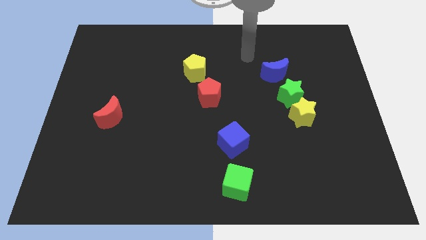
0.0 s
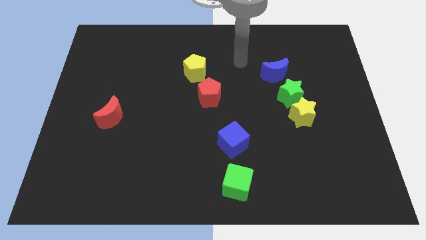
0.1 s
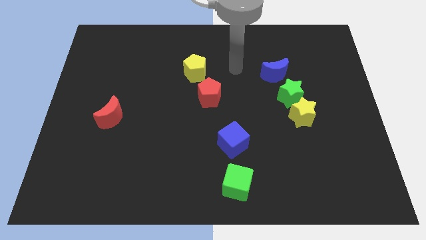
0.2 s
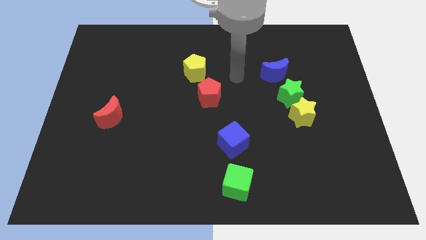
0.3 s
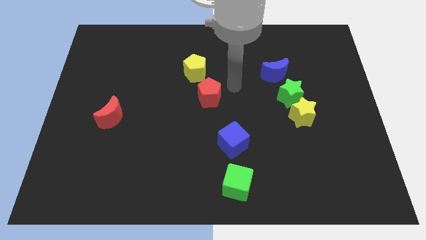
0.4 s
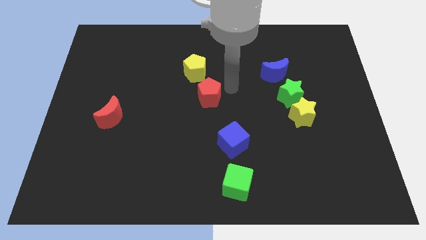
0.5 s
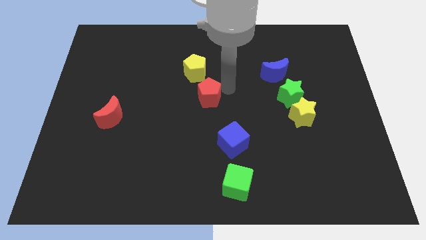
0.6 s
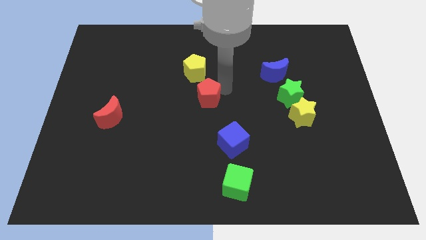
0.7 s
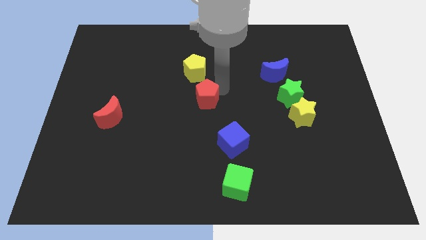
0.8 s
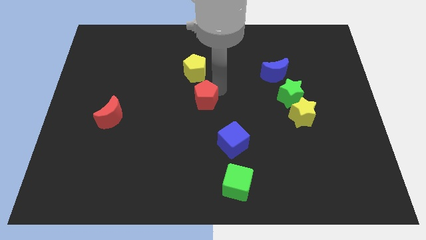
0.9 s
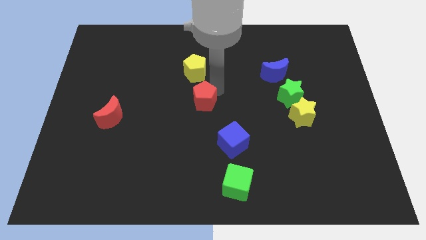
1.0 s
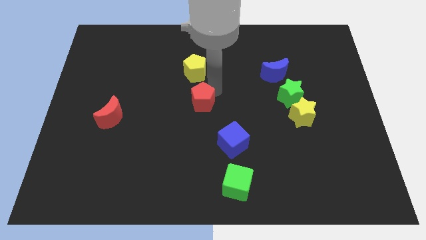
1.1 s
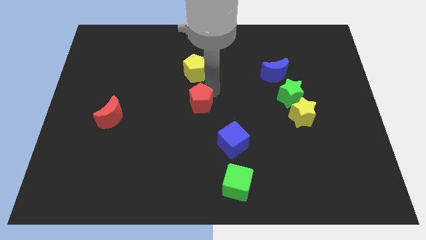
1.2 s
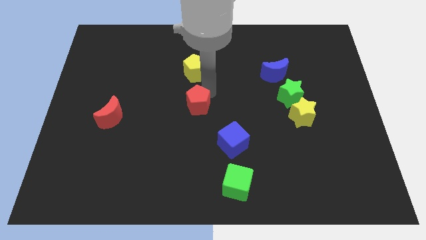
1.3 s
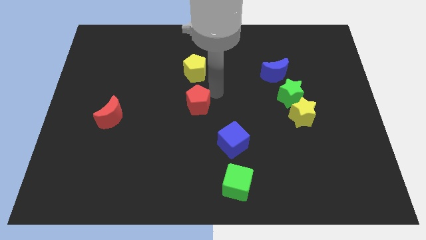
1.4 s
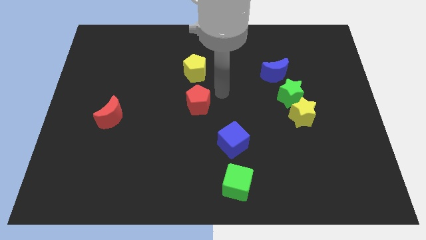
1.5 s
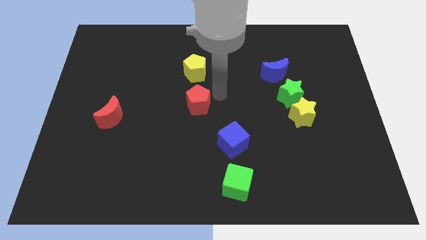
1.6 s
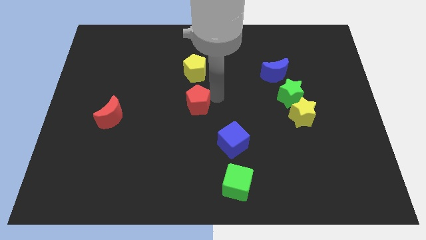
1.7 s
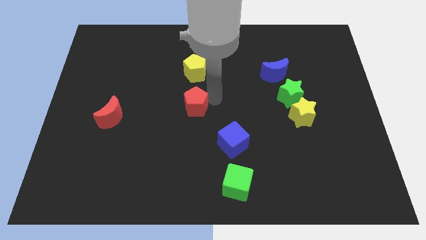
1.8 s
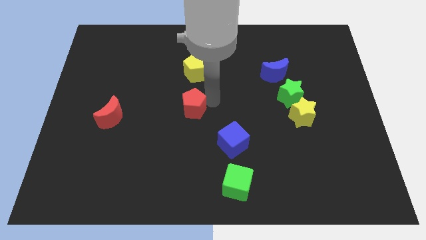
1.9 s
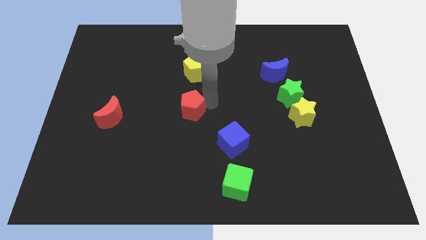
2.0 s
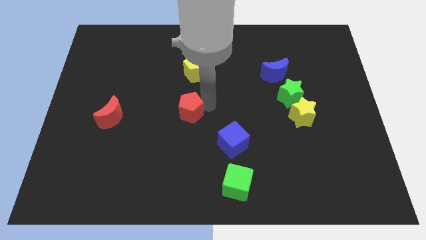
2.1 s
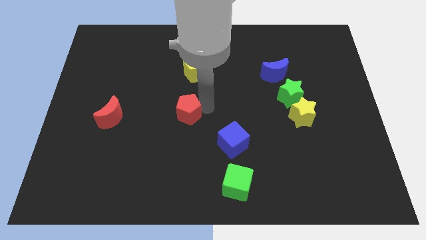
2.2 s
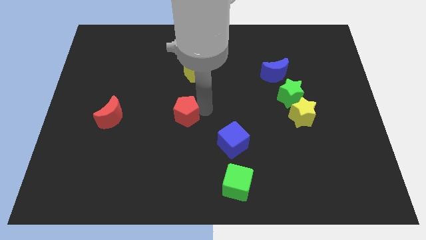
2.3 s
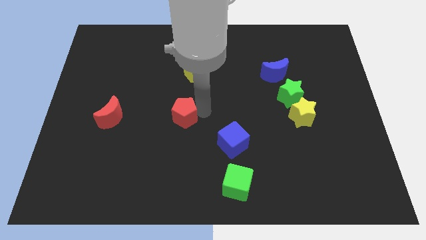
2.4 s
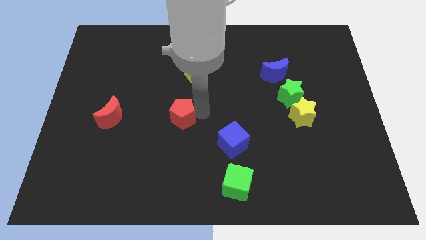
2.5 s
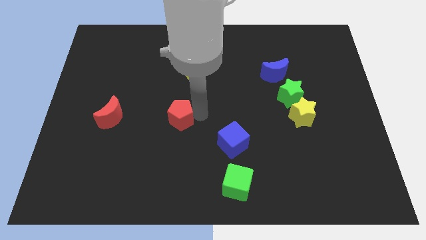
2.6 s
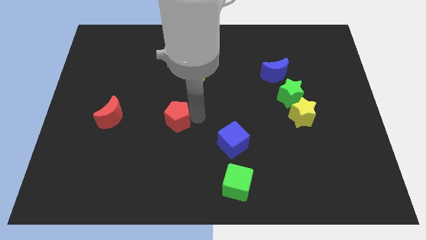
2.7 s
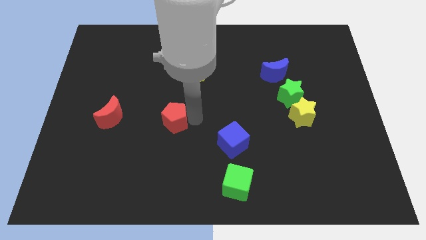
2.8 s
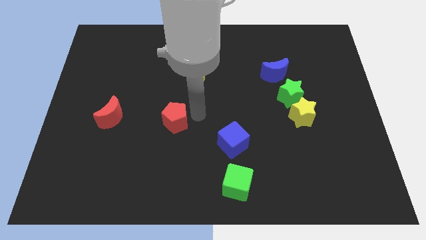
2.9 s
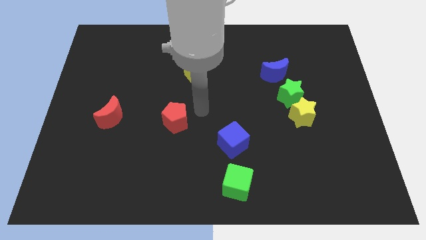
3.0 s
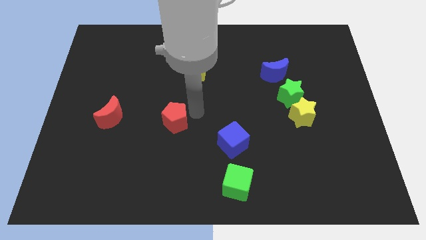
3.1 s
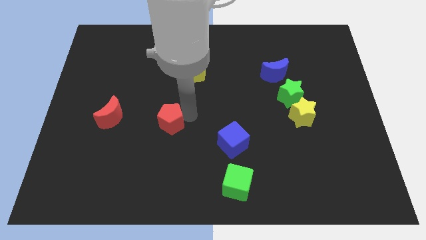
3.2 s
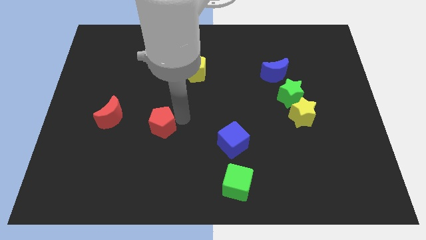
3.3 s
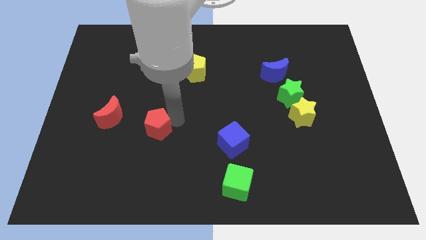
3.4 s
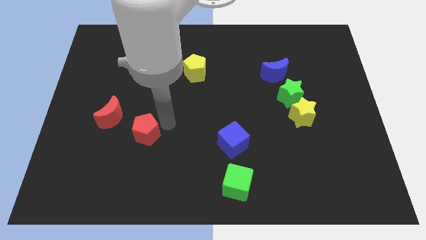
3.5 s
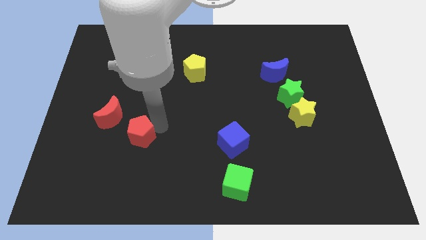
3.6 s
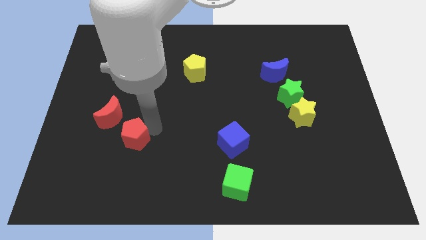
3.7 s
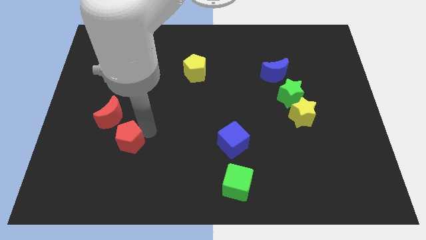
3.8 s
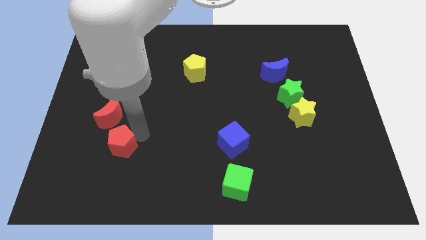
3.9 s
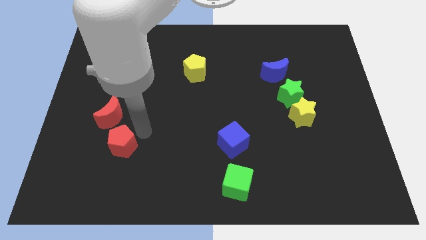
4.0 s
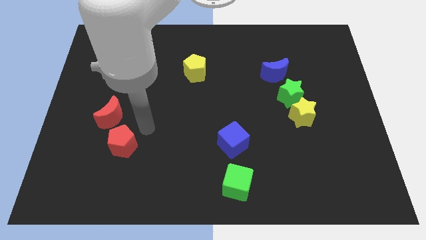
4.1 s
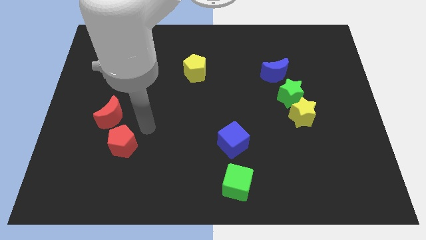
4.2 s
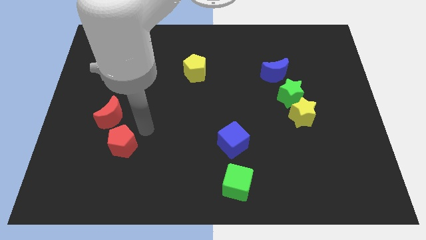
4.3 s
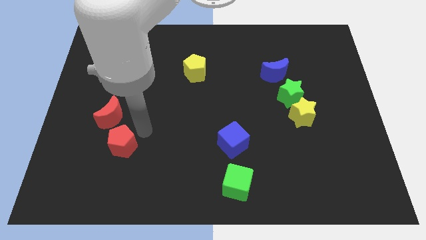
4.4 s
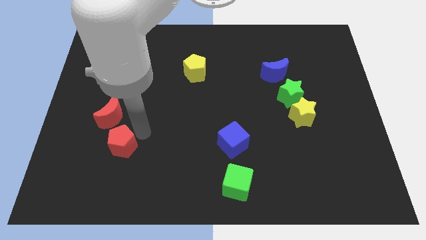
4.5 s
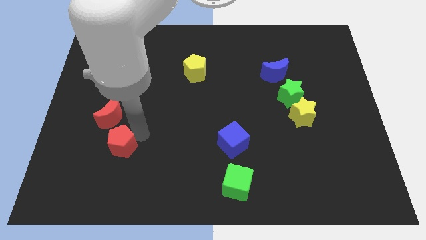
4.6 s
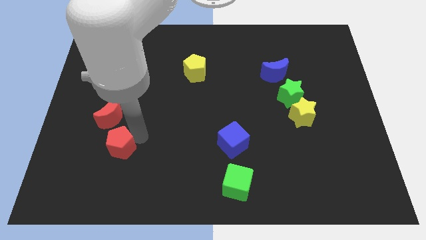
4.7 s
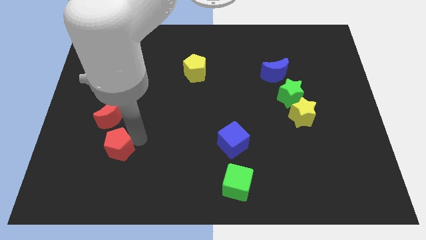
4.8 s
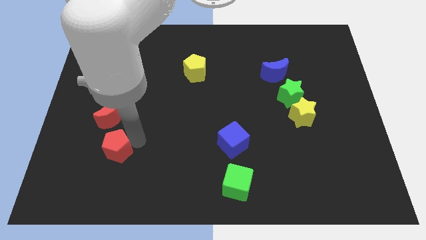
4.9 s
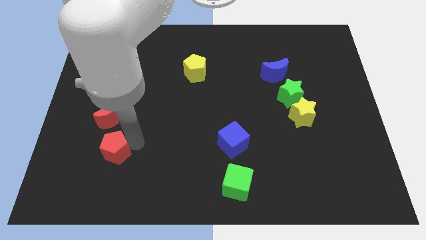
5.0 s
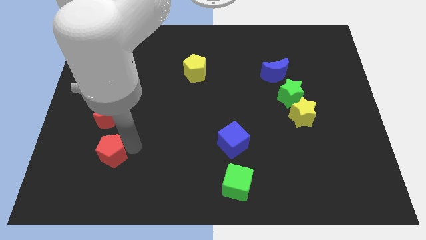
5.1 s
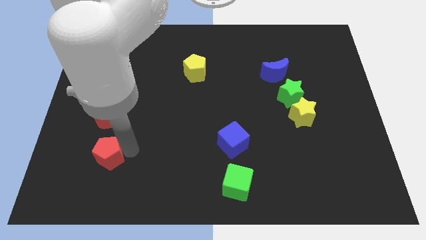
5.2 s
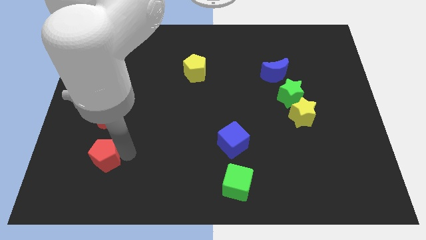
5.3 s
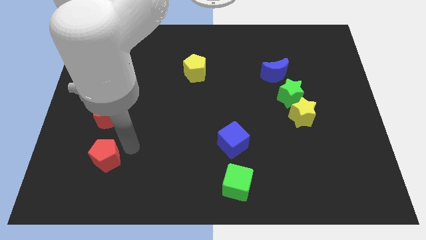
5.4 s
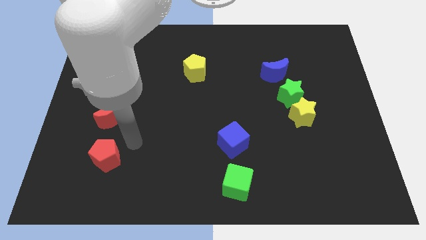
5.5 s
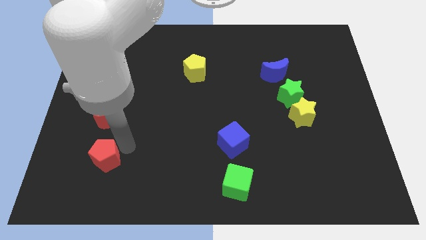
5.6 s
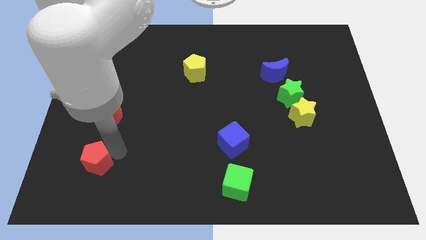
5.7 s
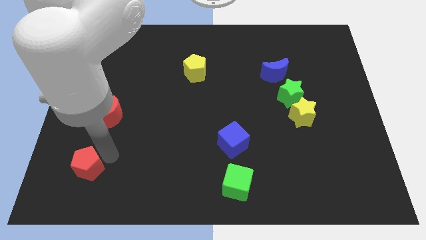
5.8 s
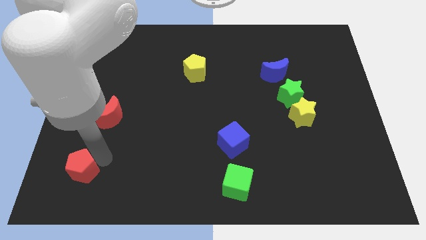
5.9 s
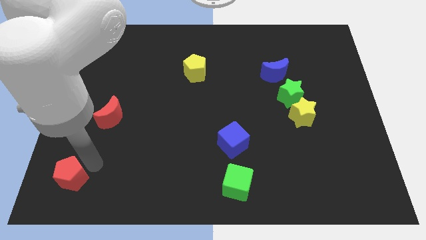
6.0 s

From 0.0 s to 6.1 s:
slide the red pentagon to the lower left corner

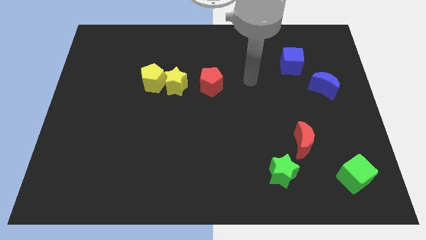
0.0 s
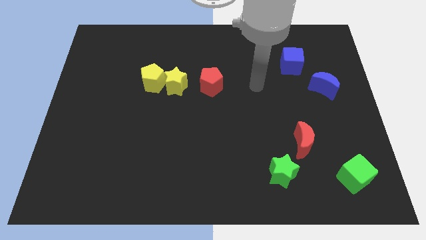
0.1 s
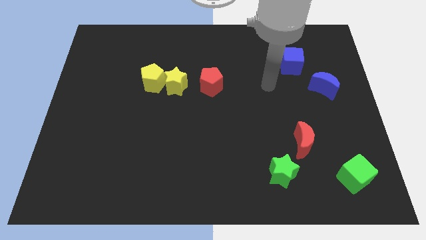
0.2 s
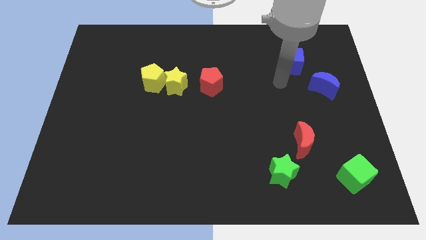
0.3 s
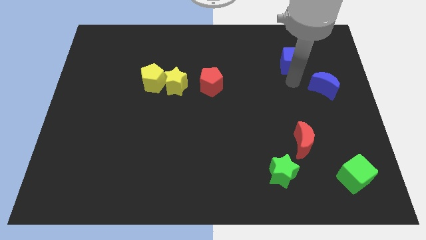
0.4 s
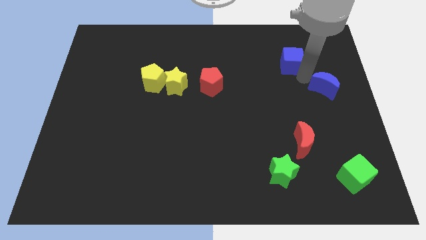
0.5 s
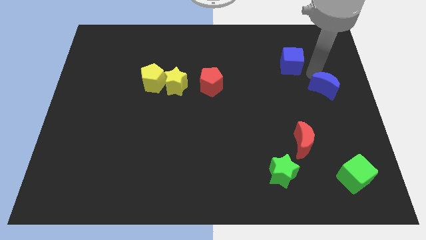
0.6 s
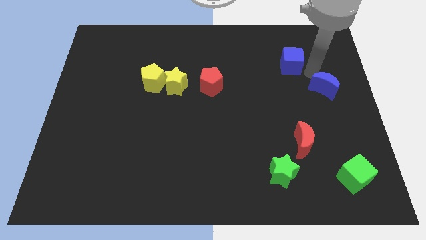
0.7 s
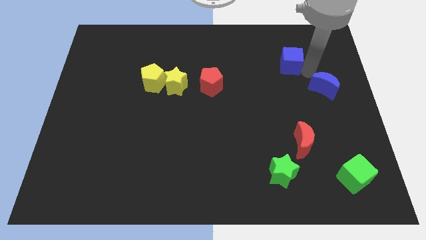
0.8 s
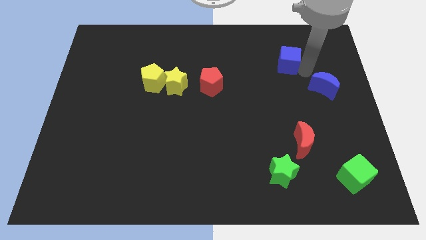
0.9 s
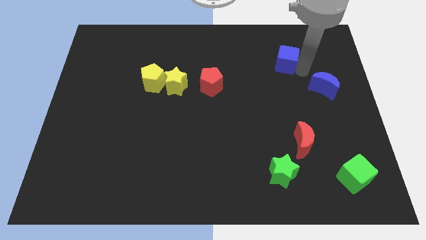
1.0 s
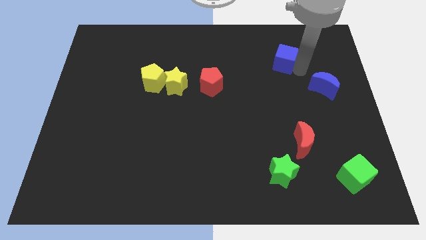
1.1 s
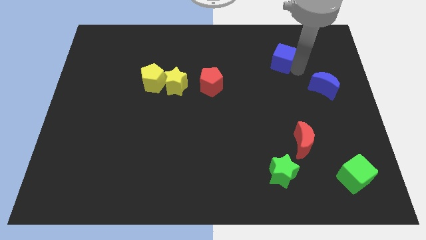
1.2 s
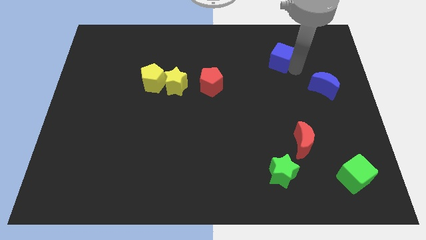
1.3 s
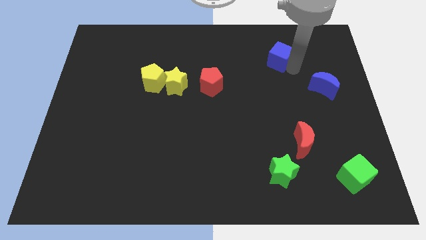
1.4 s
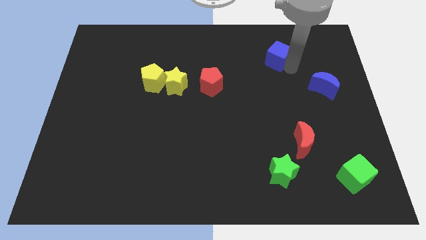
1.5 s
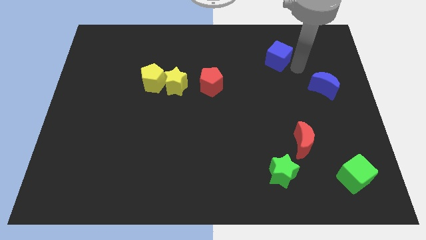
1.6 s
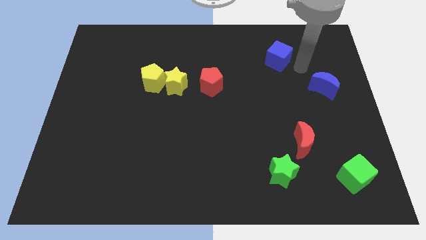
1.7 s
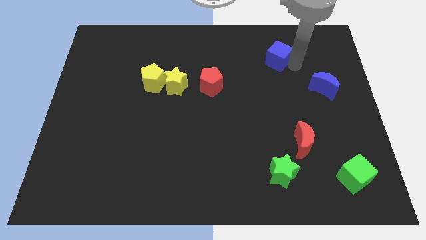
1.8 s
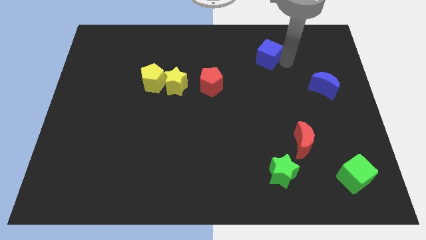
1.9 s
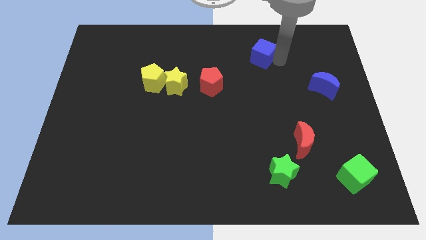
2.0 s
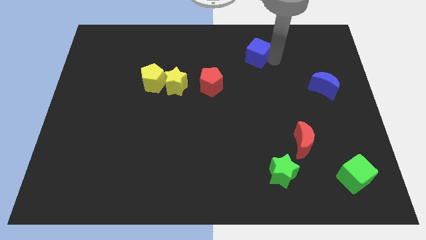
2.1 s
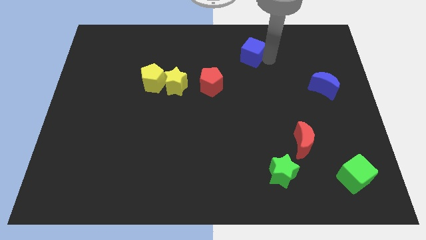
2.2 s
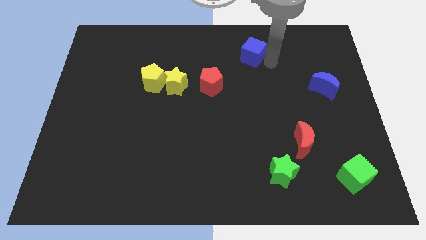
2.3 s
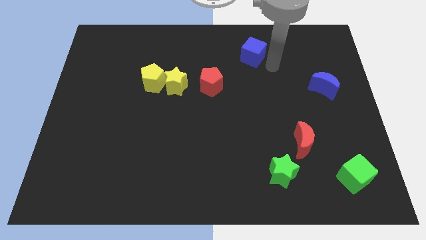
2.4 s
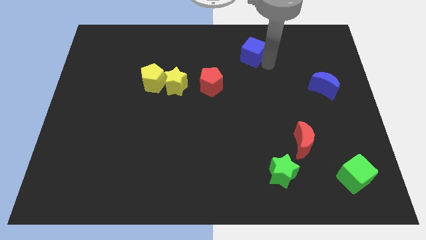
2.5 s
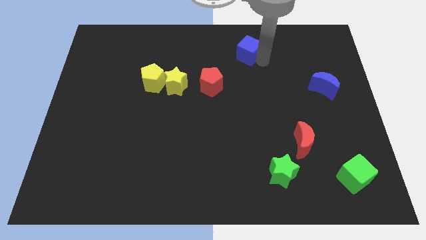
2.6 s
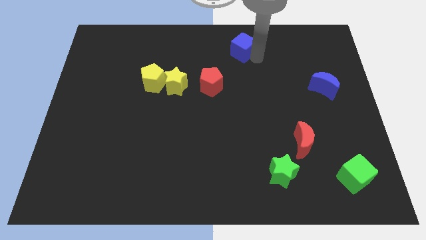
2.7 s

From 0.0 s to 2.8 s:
put the blue cube to the top
